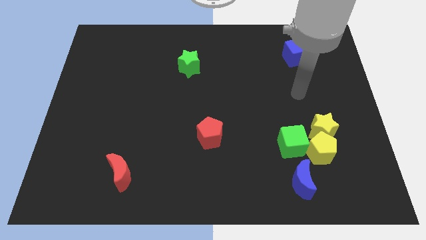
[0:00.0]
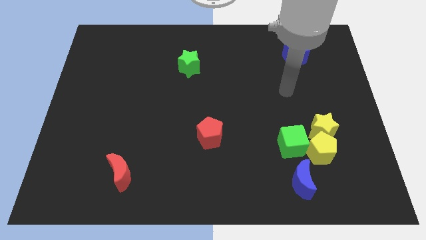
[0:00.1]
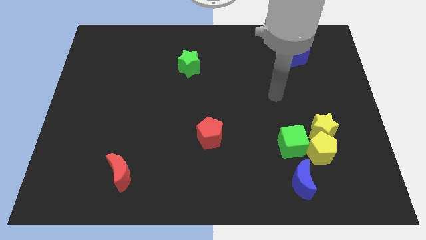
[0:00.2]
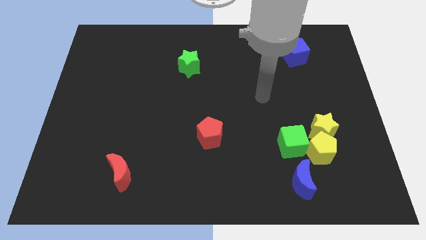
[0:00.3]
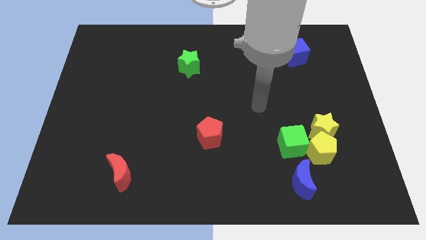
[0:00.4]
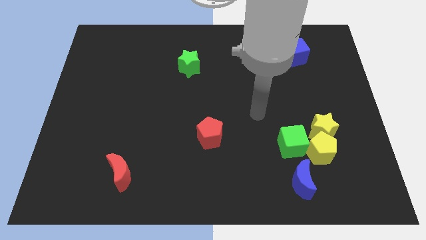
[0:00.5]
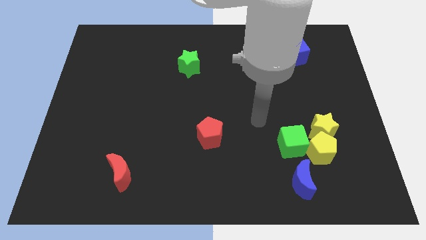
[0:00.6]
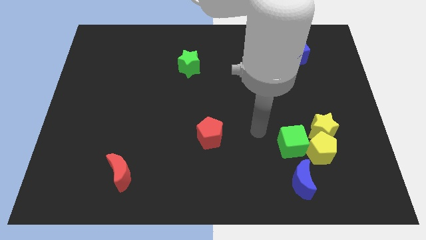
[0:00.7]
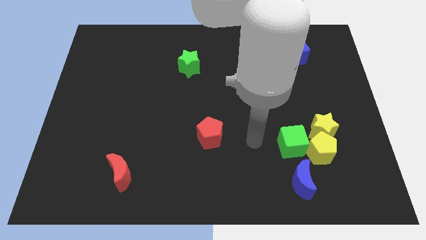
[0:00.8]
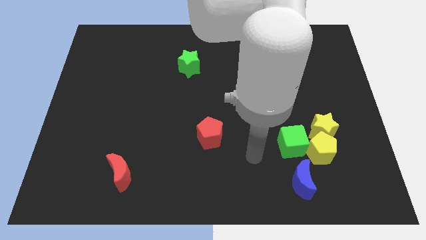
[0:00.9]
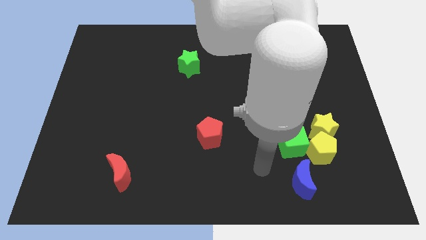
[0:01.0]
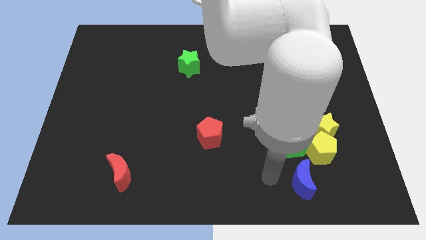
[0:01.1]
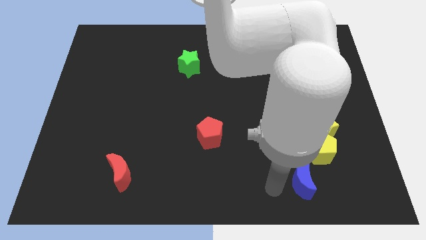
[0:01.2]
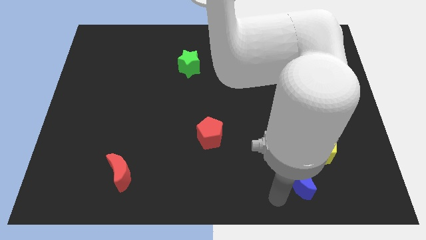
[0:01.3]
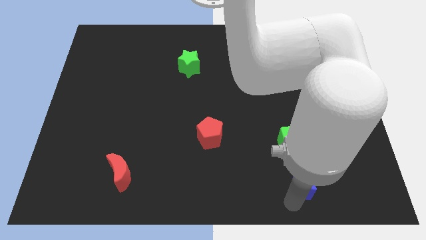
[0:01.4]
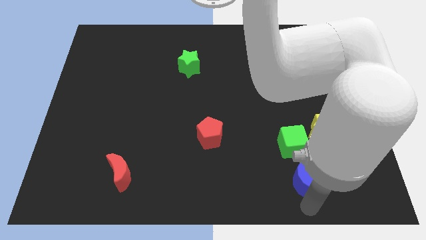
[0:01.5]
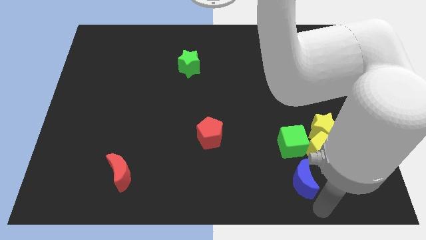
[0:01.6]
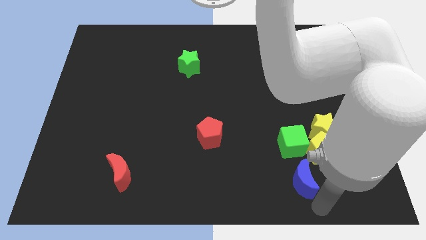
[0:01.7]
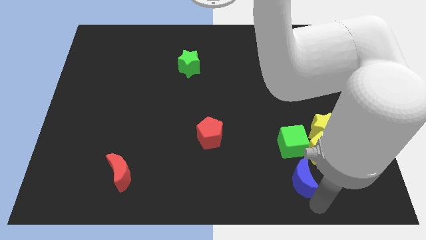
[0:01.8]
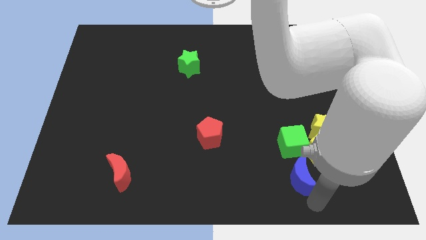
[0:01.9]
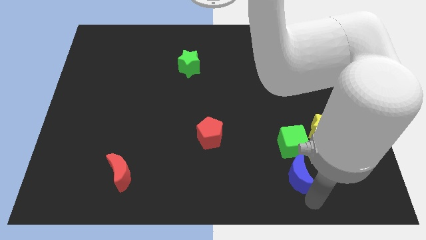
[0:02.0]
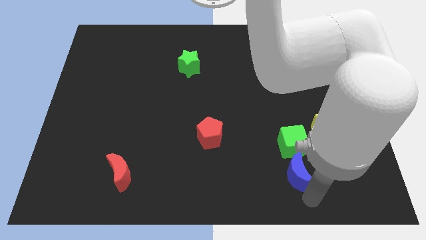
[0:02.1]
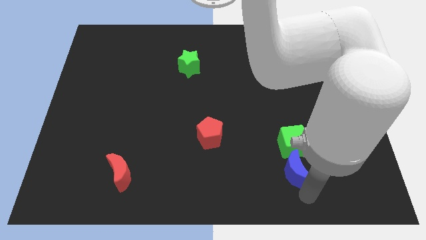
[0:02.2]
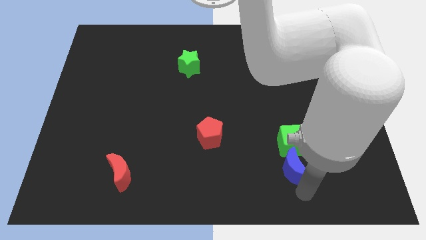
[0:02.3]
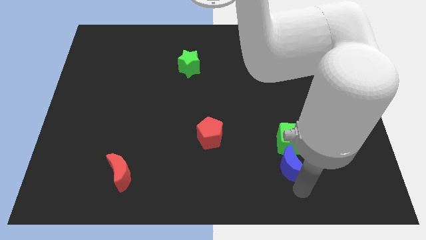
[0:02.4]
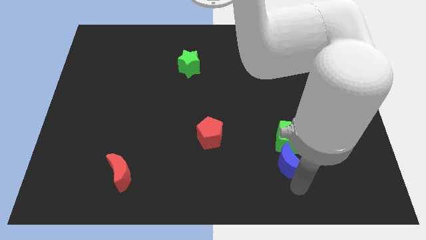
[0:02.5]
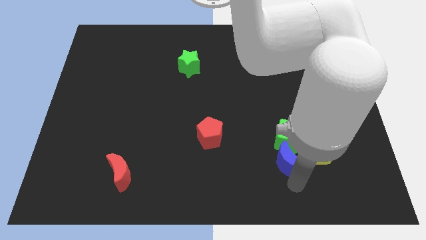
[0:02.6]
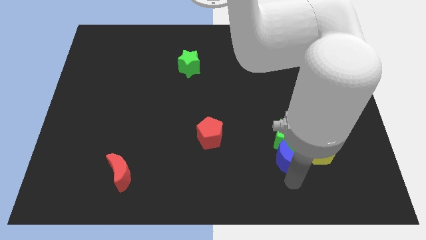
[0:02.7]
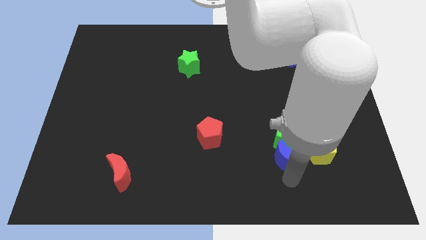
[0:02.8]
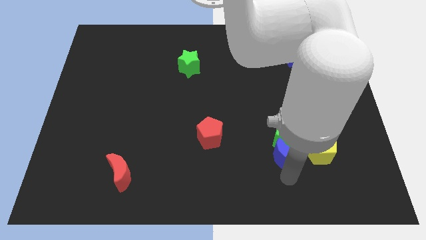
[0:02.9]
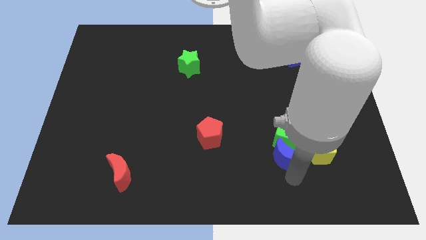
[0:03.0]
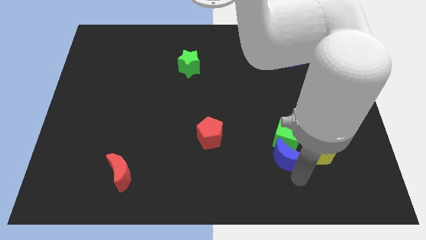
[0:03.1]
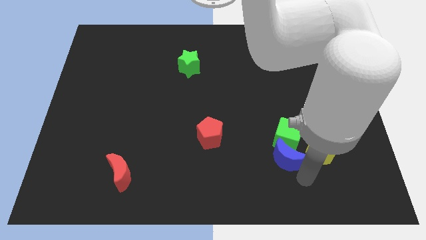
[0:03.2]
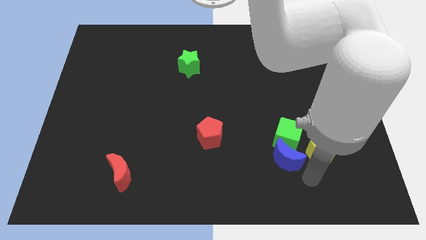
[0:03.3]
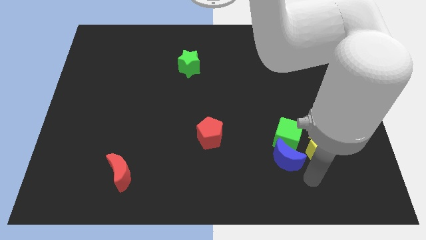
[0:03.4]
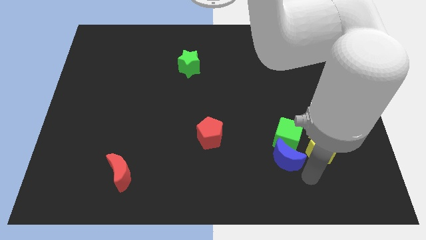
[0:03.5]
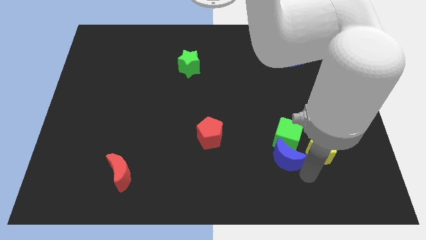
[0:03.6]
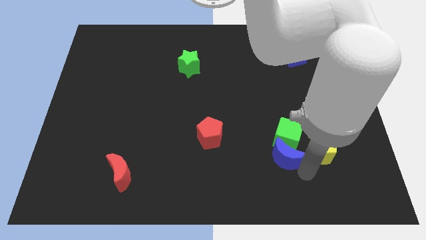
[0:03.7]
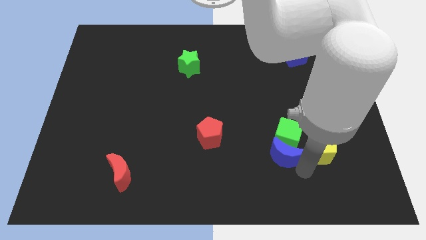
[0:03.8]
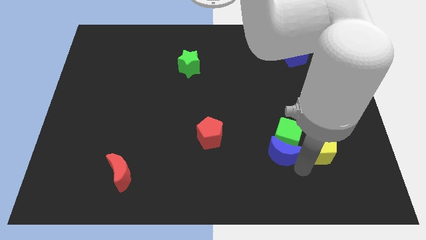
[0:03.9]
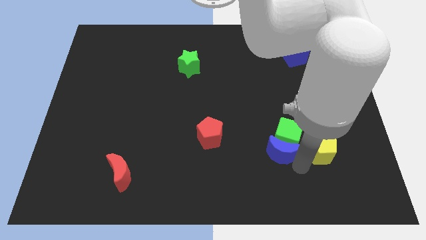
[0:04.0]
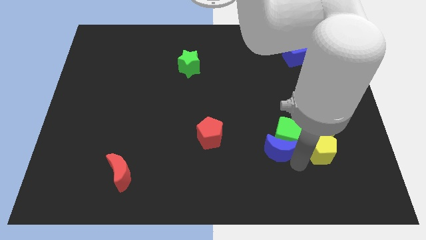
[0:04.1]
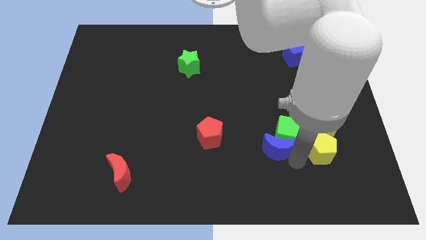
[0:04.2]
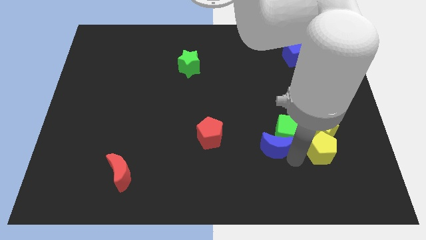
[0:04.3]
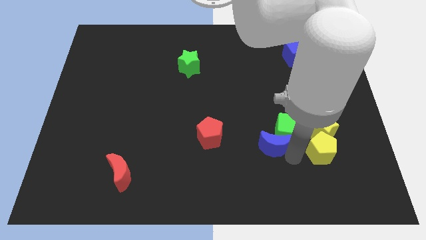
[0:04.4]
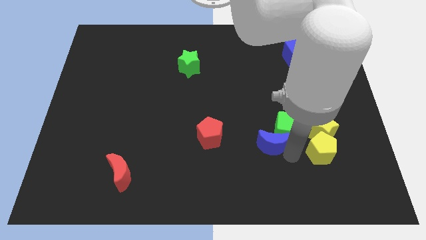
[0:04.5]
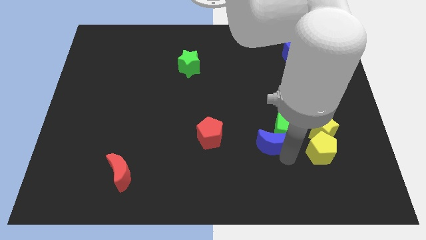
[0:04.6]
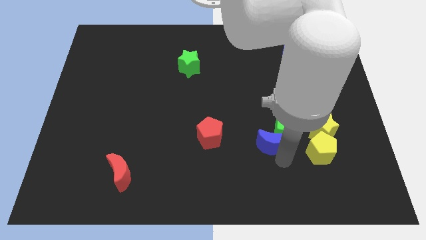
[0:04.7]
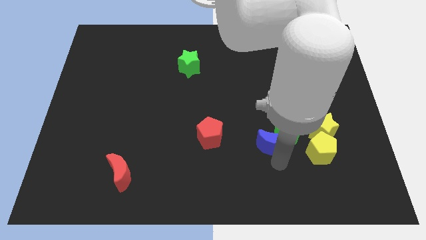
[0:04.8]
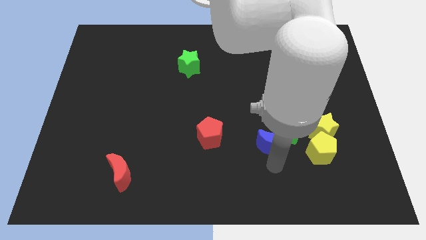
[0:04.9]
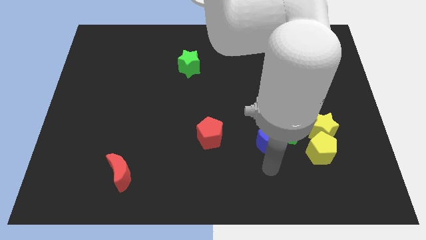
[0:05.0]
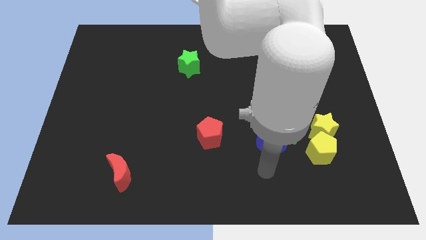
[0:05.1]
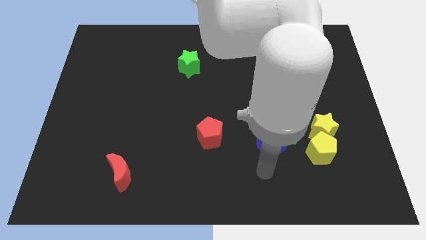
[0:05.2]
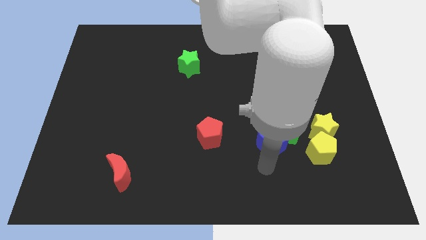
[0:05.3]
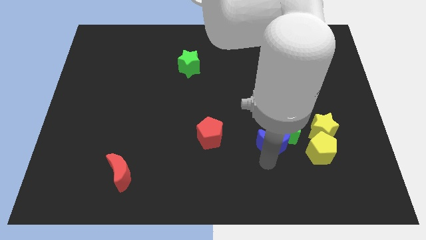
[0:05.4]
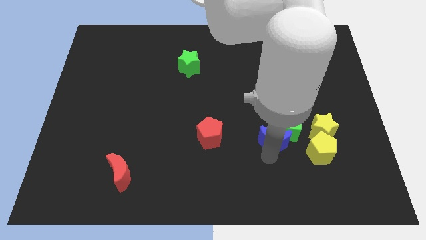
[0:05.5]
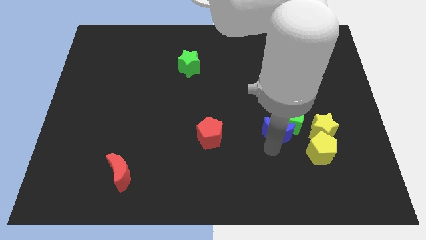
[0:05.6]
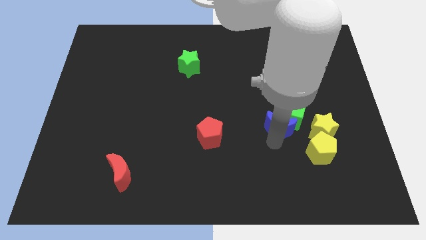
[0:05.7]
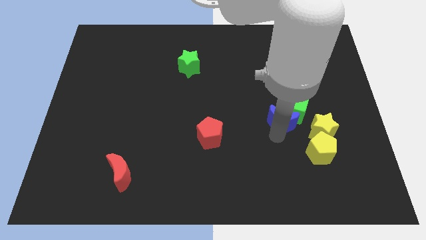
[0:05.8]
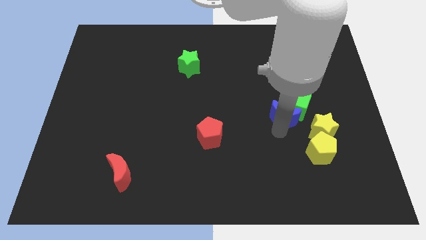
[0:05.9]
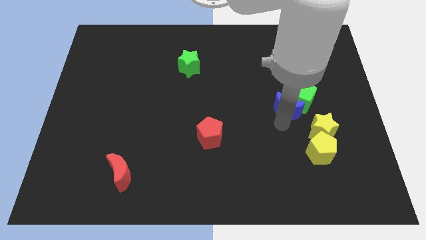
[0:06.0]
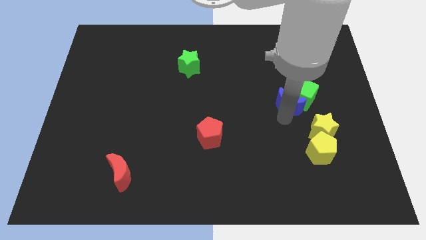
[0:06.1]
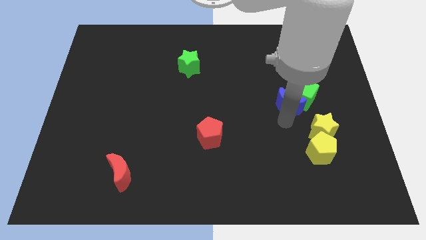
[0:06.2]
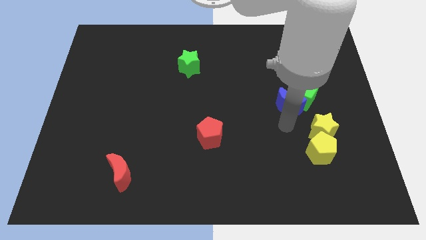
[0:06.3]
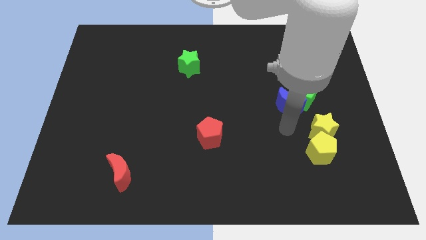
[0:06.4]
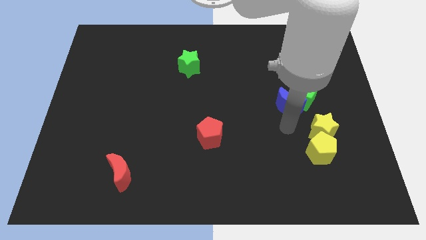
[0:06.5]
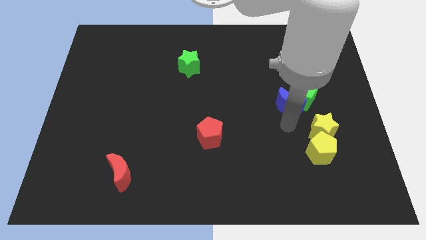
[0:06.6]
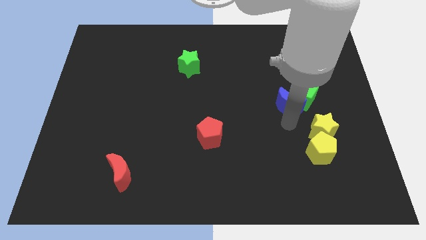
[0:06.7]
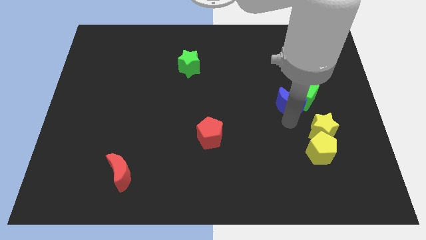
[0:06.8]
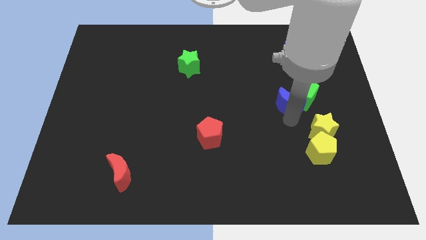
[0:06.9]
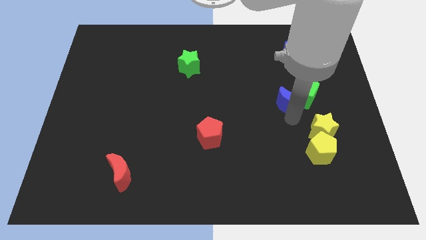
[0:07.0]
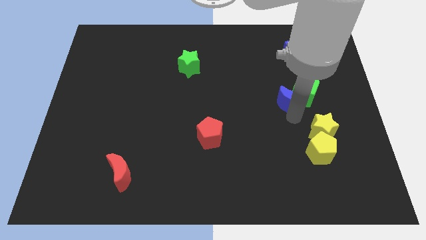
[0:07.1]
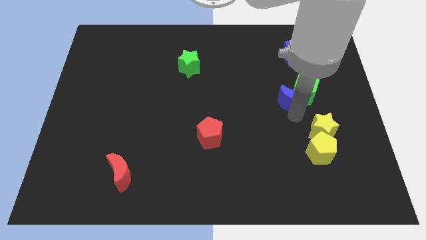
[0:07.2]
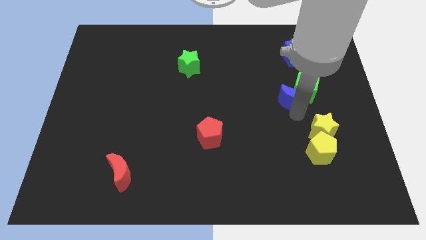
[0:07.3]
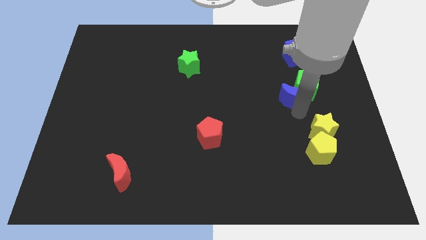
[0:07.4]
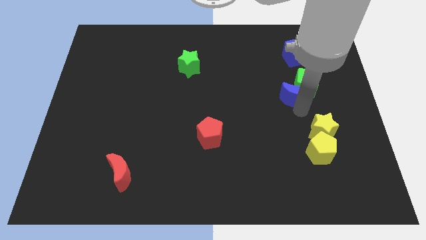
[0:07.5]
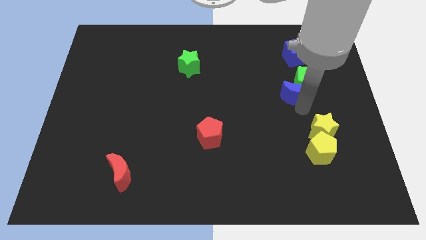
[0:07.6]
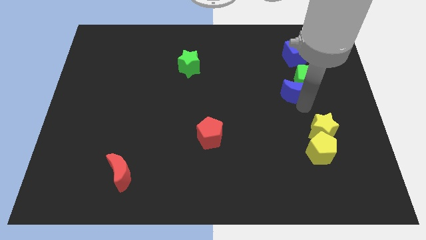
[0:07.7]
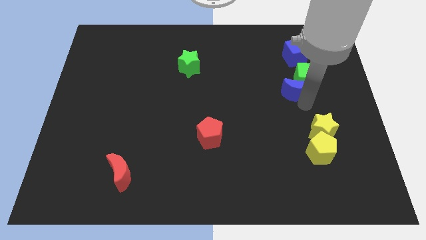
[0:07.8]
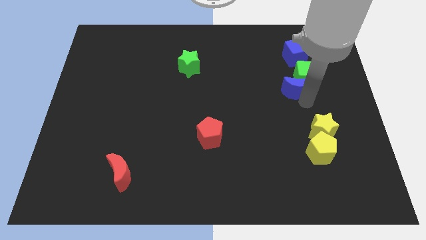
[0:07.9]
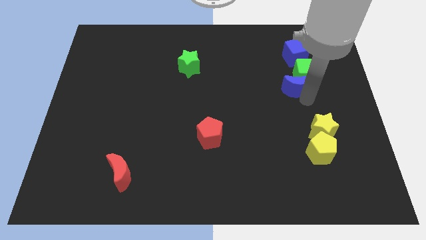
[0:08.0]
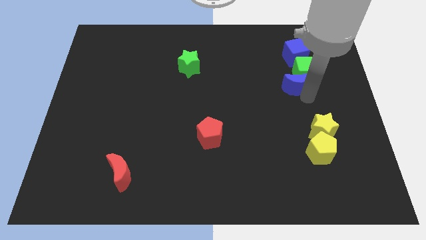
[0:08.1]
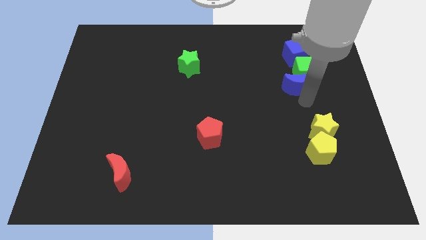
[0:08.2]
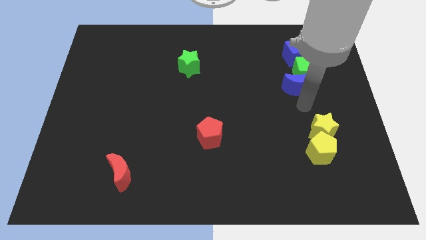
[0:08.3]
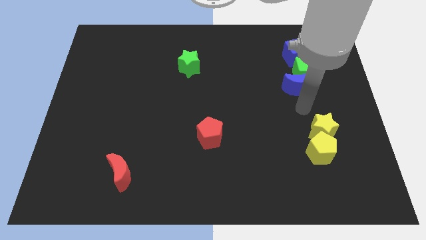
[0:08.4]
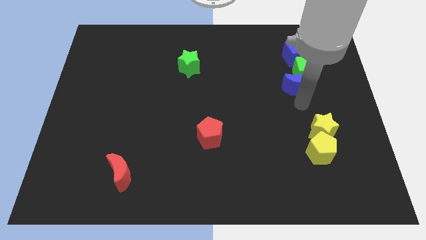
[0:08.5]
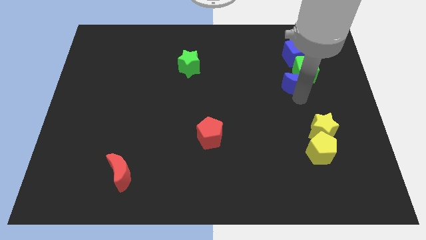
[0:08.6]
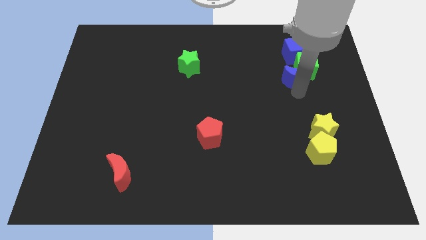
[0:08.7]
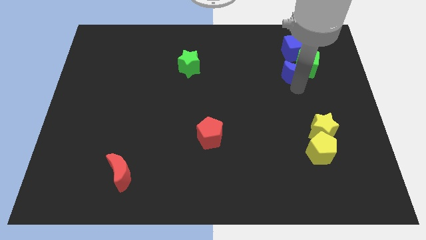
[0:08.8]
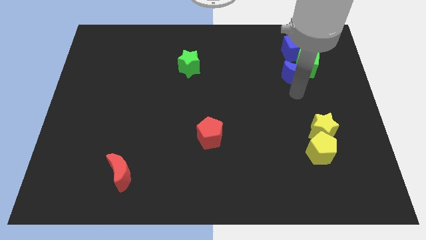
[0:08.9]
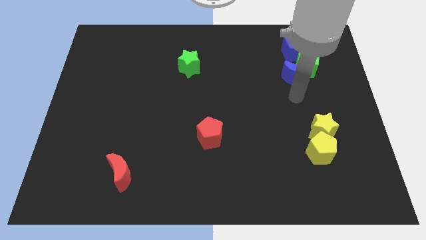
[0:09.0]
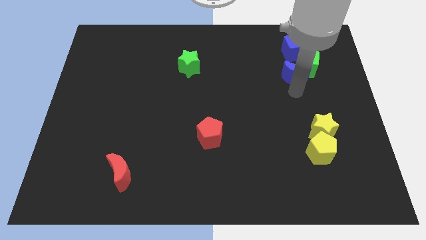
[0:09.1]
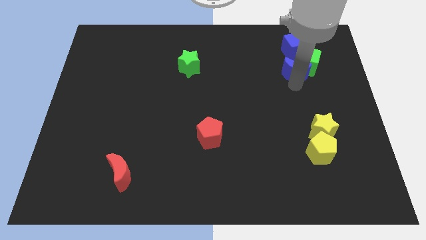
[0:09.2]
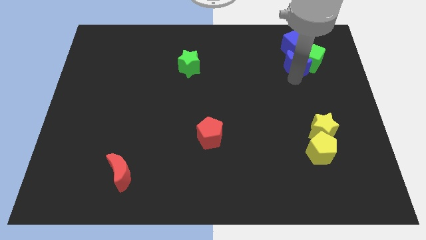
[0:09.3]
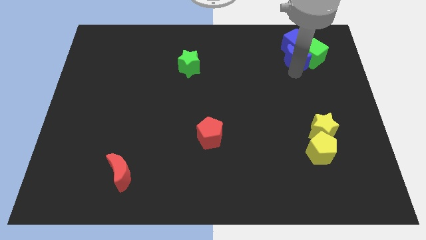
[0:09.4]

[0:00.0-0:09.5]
move the blue moon towards the blue cube
